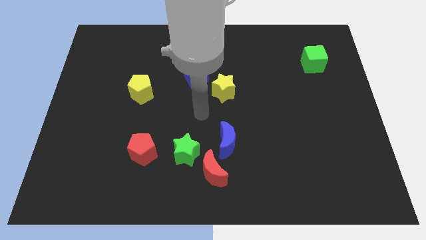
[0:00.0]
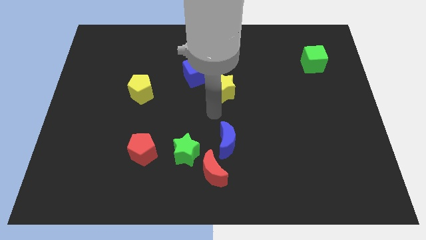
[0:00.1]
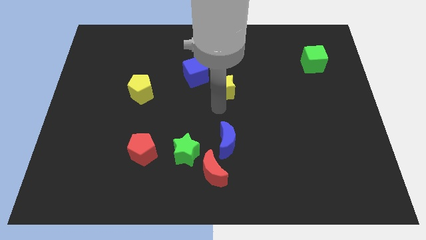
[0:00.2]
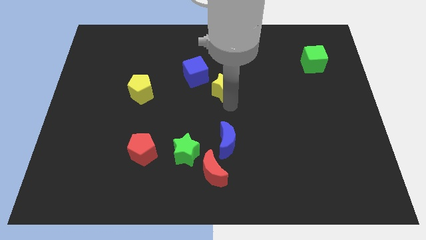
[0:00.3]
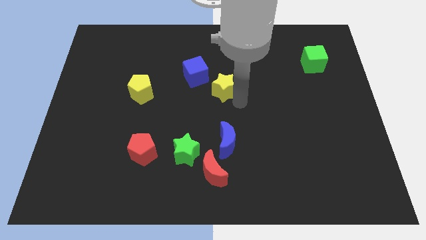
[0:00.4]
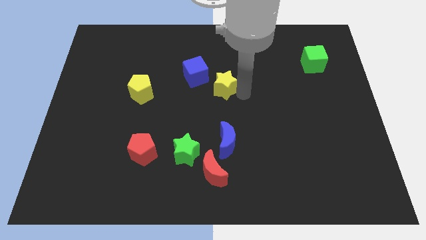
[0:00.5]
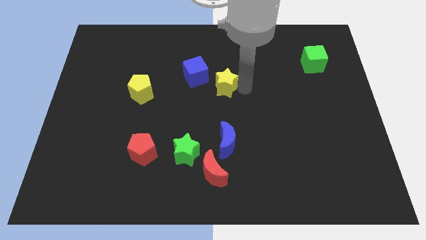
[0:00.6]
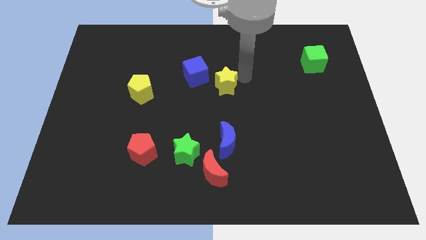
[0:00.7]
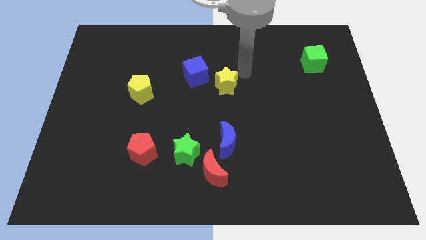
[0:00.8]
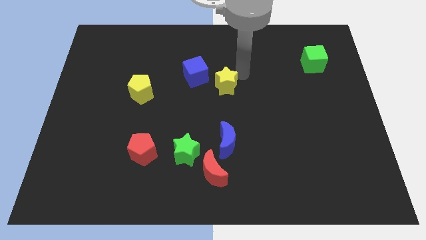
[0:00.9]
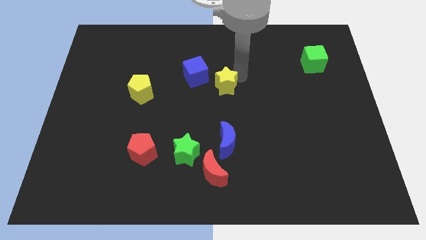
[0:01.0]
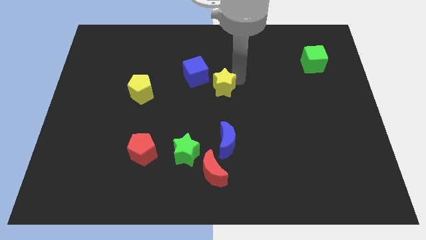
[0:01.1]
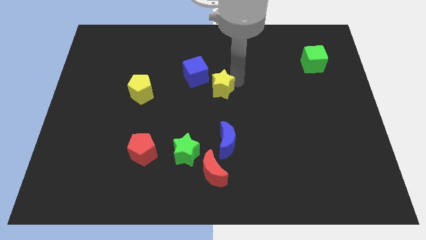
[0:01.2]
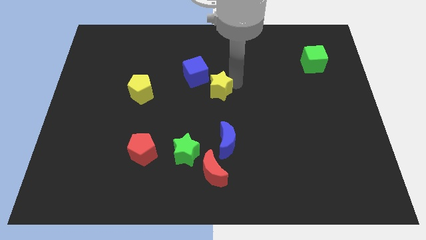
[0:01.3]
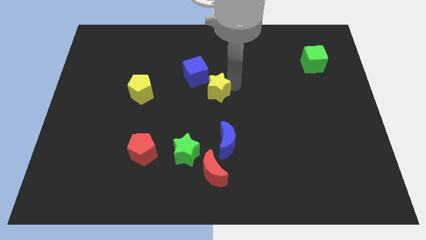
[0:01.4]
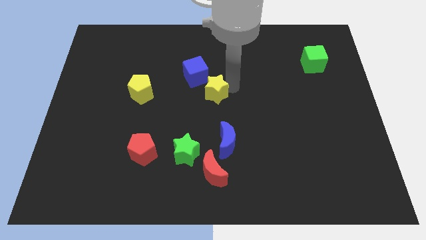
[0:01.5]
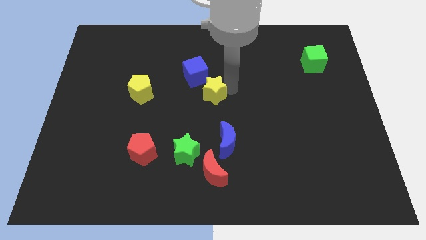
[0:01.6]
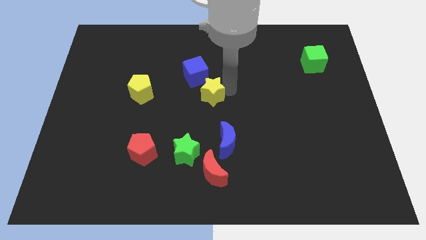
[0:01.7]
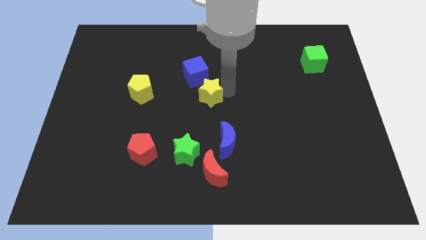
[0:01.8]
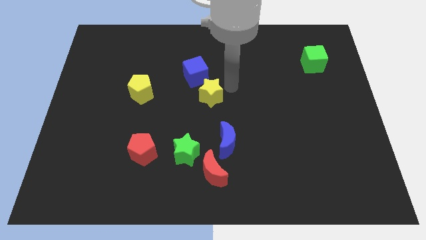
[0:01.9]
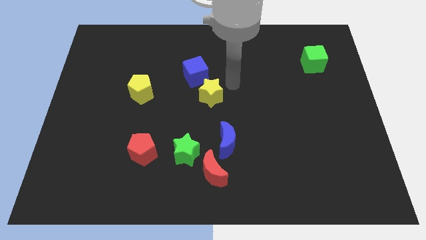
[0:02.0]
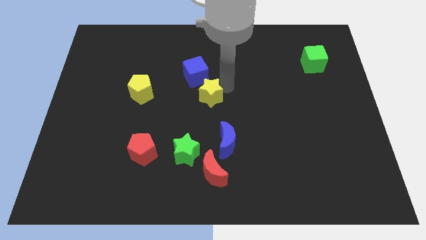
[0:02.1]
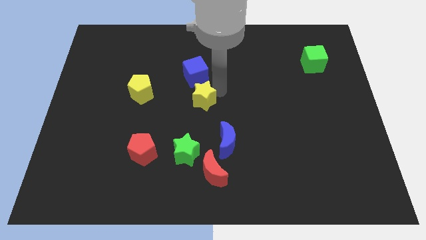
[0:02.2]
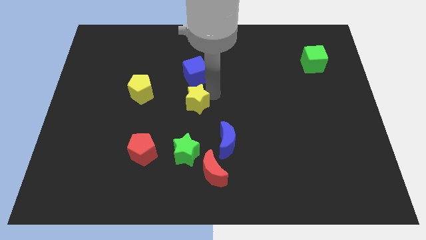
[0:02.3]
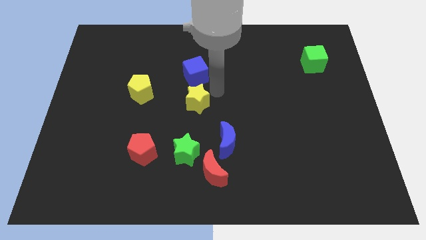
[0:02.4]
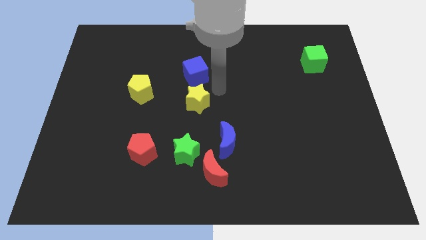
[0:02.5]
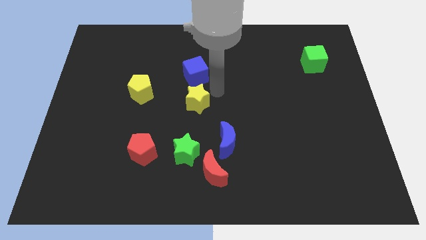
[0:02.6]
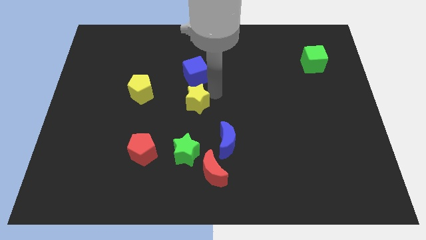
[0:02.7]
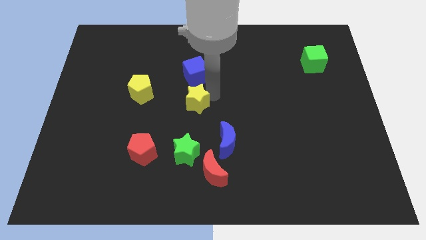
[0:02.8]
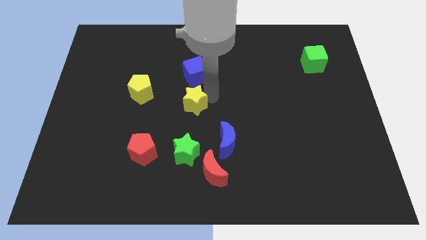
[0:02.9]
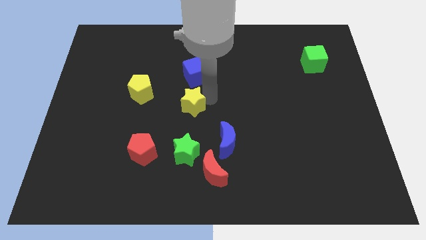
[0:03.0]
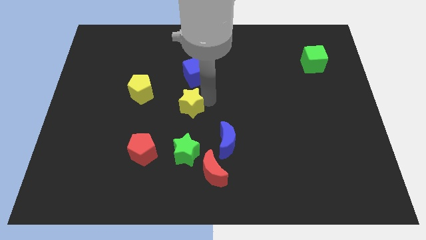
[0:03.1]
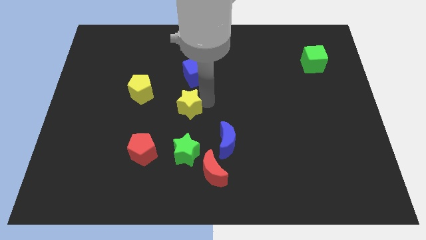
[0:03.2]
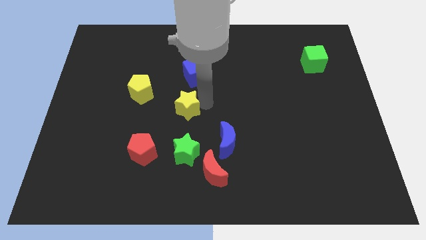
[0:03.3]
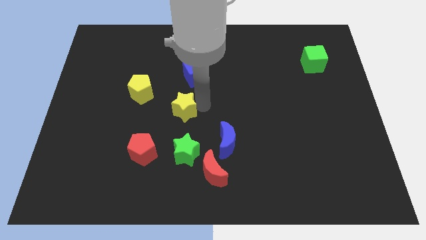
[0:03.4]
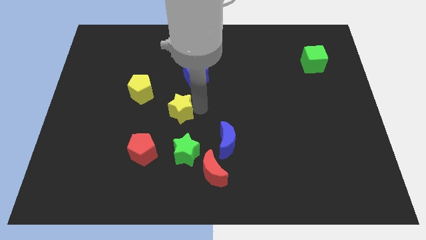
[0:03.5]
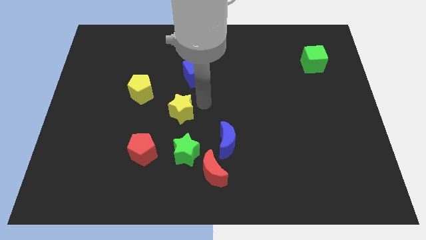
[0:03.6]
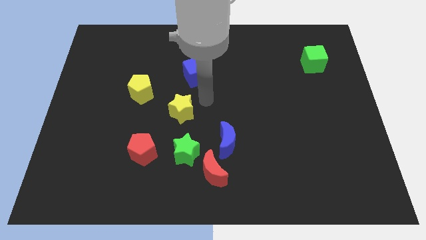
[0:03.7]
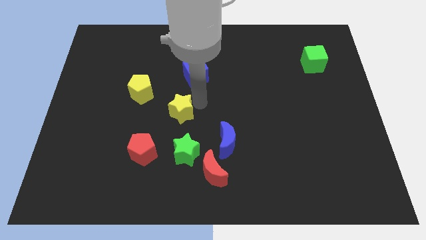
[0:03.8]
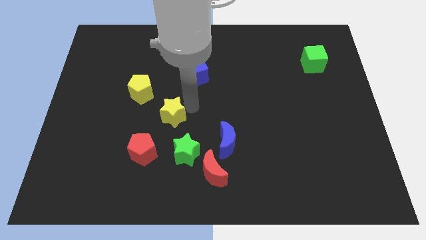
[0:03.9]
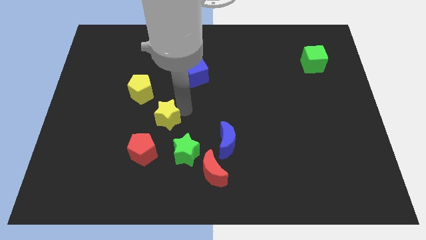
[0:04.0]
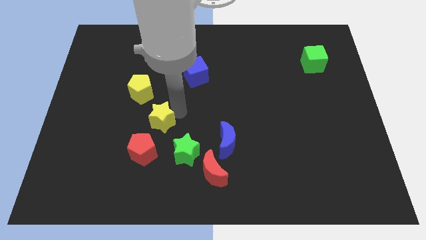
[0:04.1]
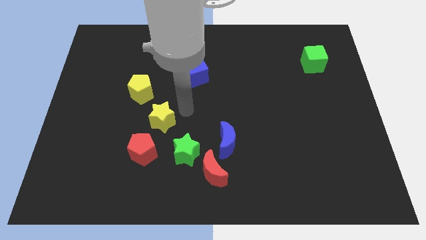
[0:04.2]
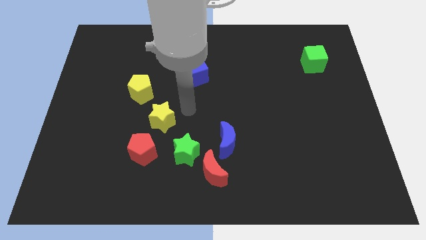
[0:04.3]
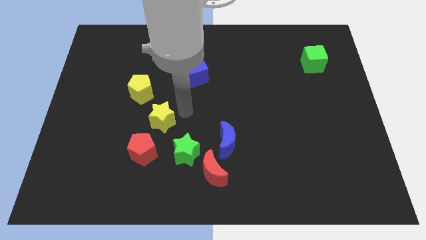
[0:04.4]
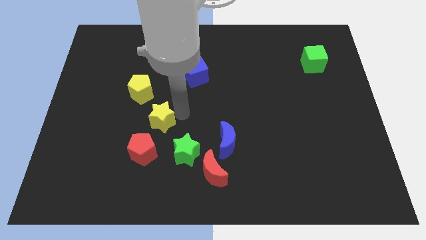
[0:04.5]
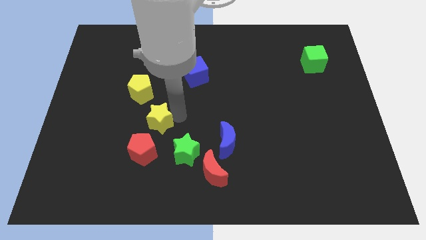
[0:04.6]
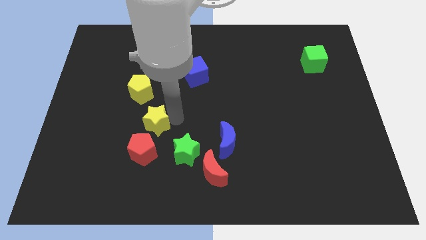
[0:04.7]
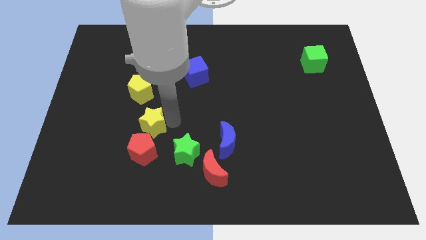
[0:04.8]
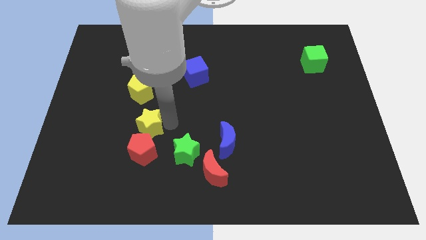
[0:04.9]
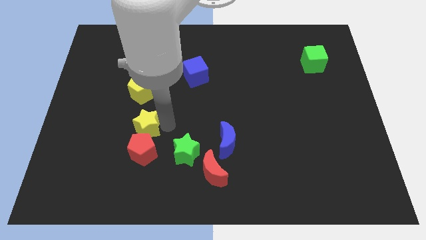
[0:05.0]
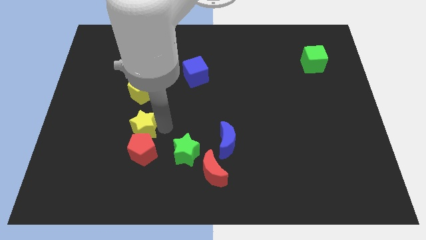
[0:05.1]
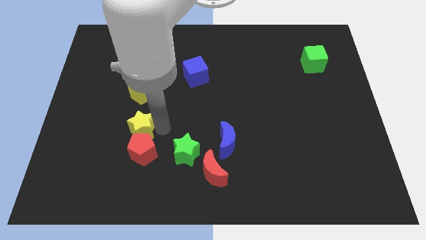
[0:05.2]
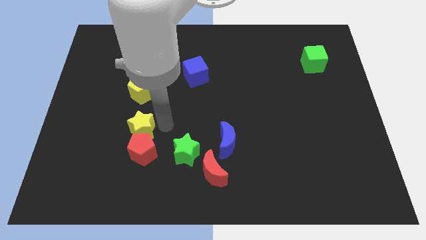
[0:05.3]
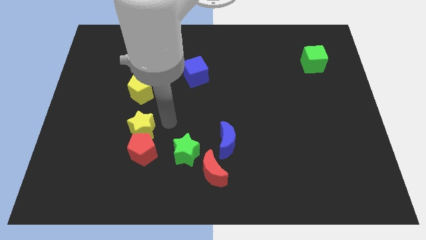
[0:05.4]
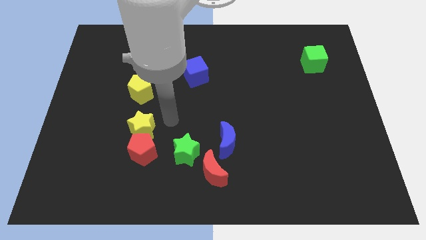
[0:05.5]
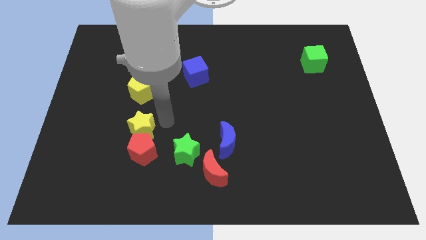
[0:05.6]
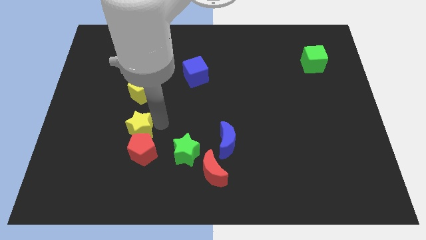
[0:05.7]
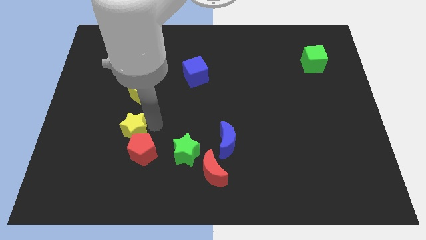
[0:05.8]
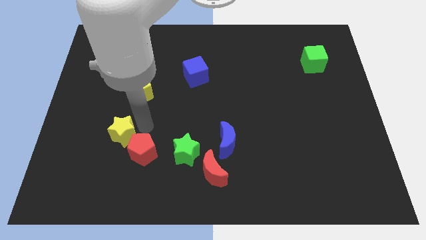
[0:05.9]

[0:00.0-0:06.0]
put the yellow star left of the red pentagon

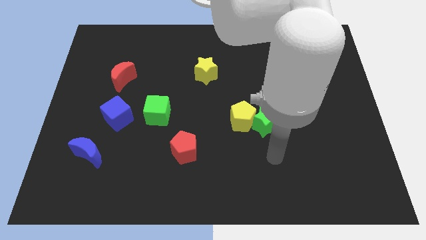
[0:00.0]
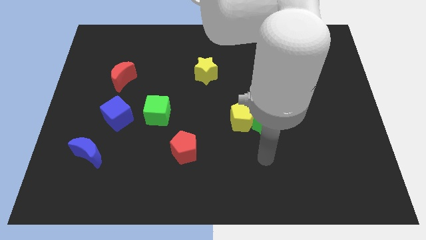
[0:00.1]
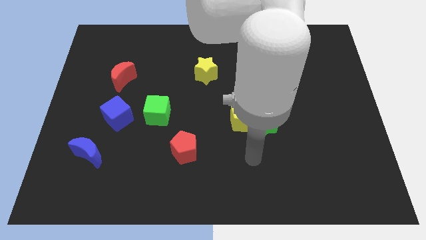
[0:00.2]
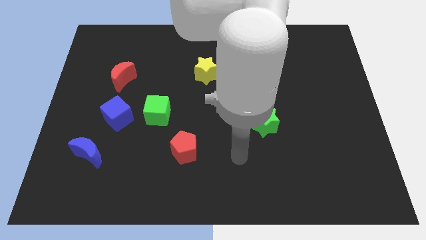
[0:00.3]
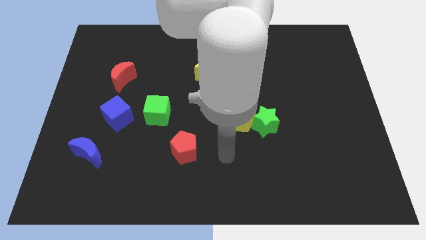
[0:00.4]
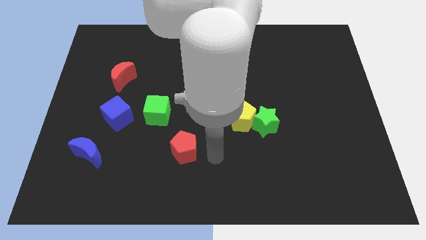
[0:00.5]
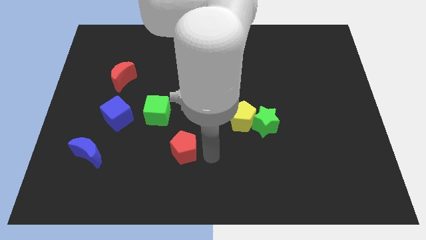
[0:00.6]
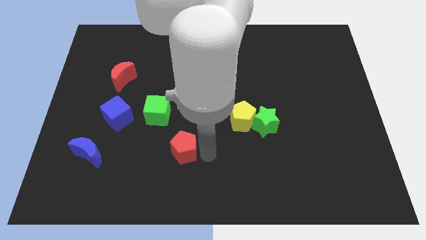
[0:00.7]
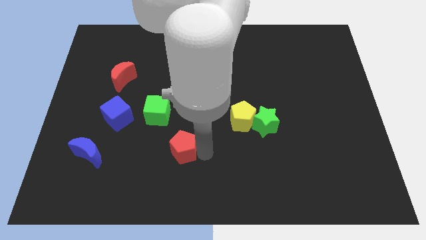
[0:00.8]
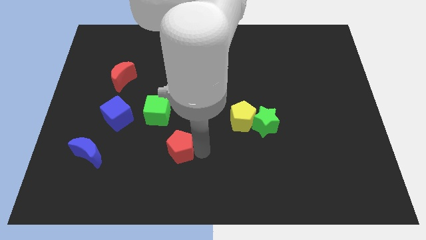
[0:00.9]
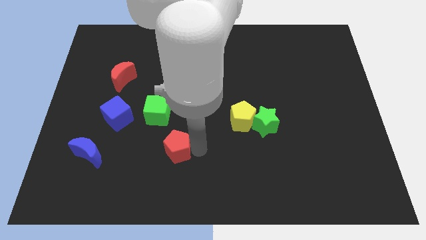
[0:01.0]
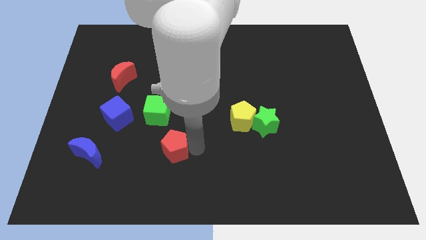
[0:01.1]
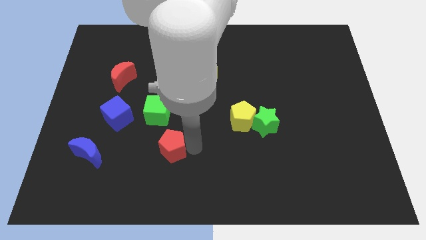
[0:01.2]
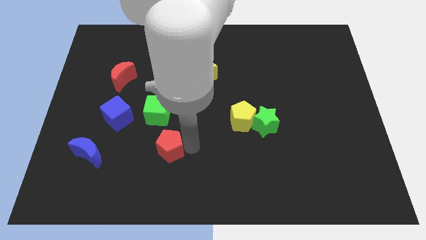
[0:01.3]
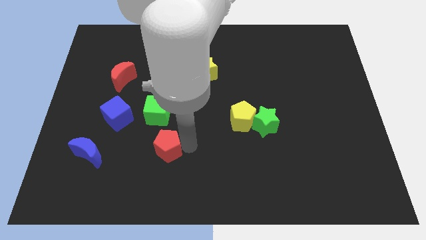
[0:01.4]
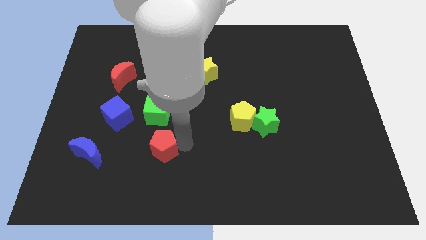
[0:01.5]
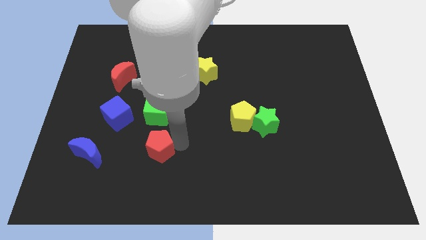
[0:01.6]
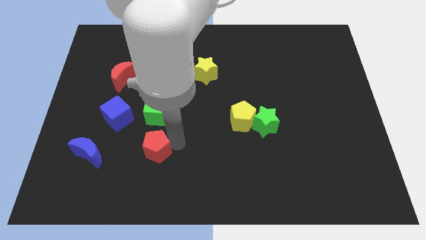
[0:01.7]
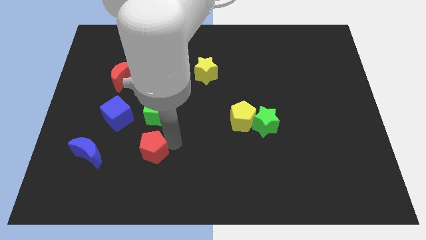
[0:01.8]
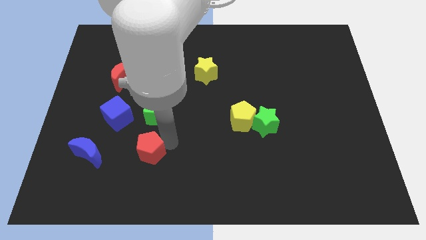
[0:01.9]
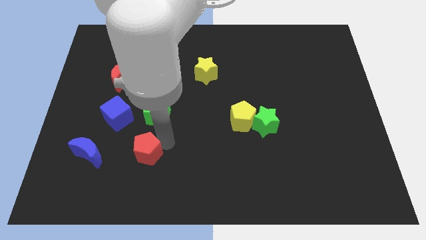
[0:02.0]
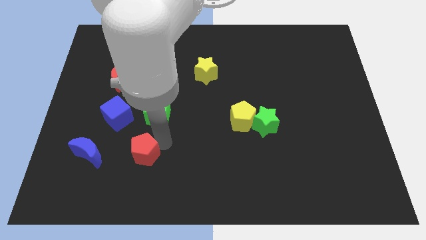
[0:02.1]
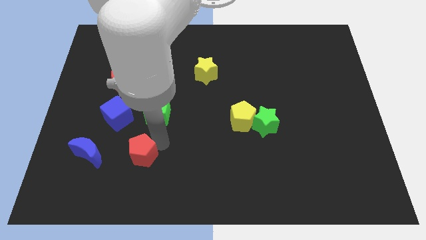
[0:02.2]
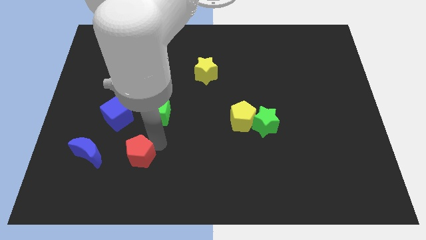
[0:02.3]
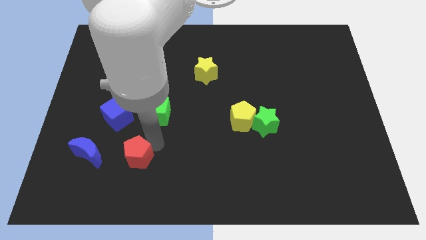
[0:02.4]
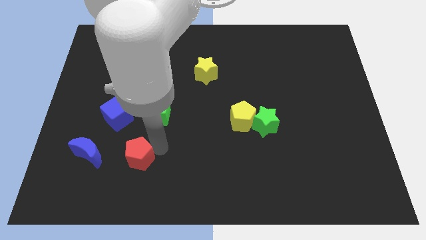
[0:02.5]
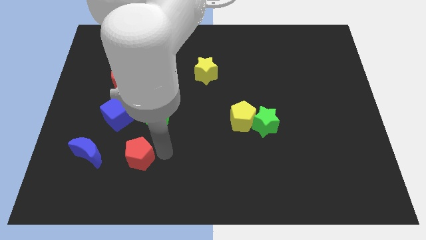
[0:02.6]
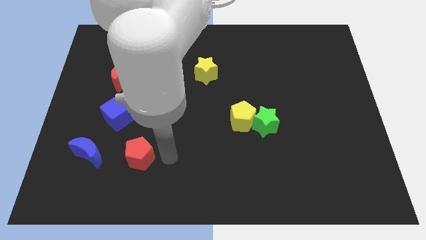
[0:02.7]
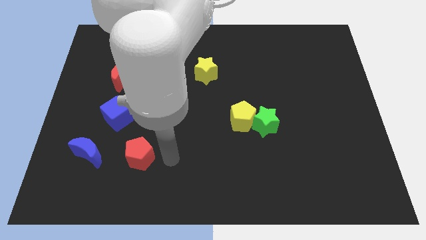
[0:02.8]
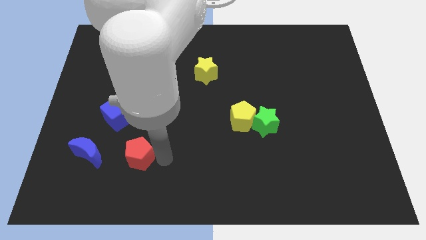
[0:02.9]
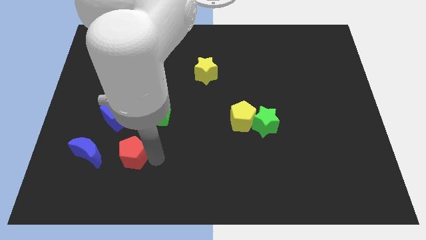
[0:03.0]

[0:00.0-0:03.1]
move the red pentagon to the bottom side of the blue cube
